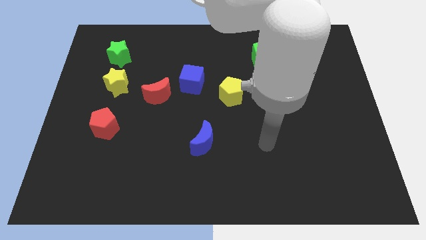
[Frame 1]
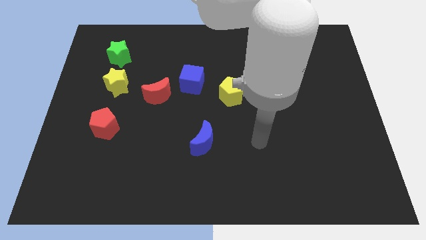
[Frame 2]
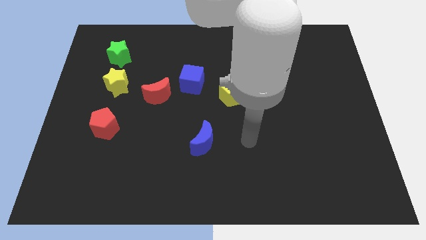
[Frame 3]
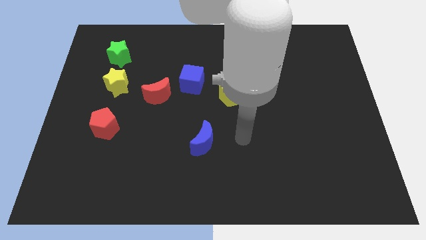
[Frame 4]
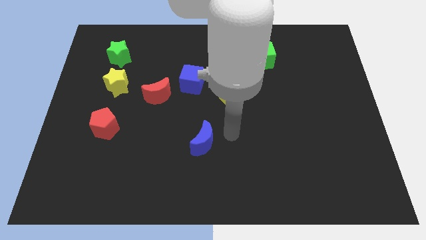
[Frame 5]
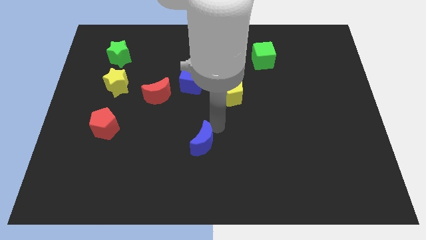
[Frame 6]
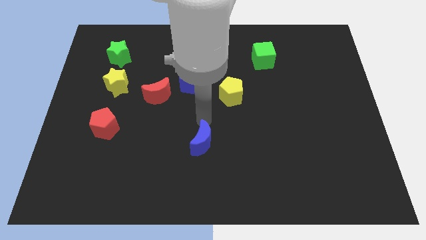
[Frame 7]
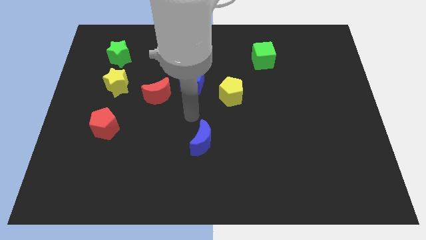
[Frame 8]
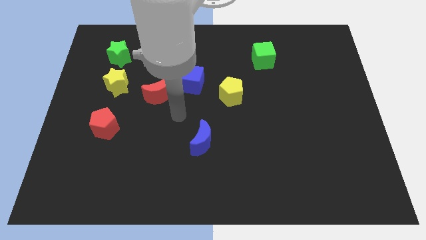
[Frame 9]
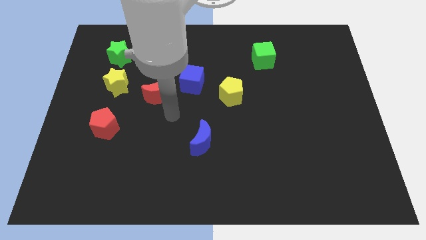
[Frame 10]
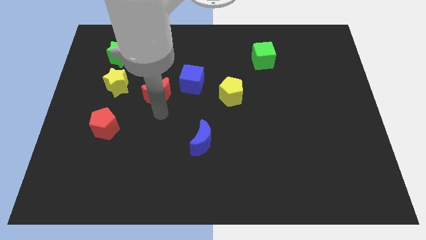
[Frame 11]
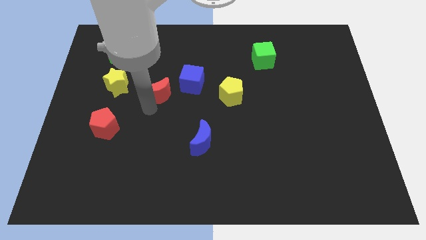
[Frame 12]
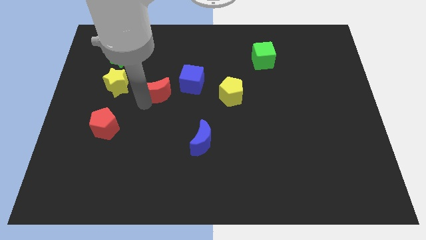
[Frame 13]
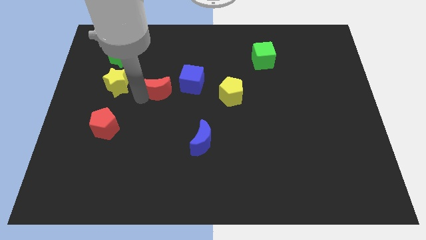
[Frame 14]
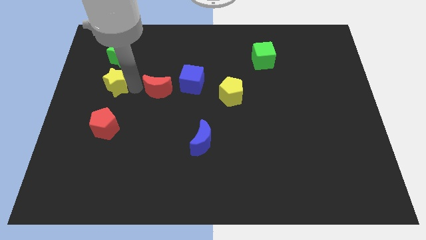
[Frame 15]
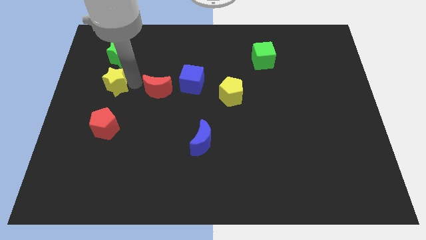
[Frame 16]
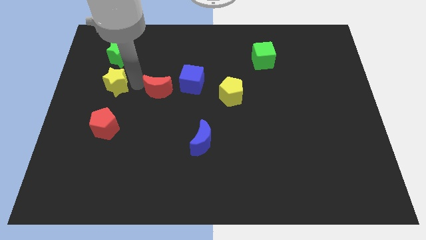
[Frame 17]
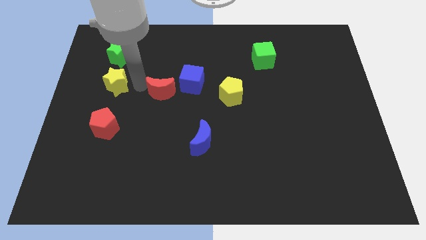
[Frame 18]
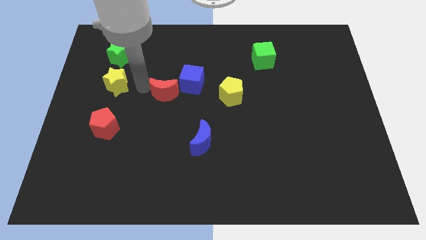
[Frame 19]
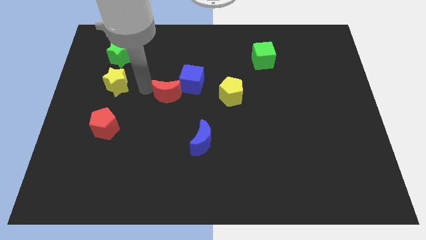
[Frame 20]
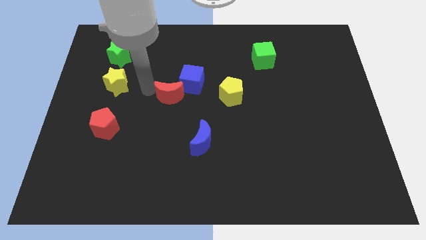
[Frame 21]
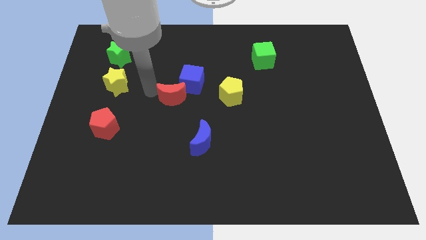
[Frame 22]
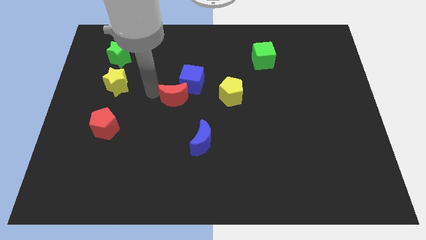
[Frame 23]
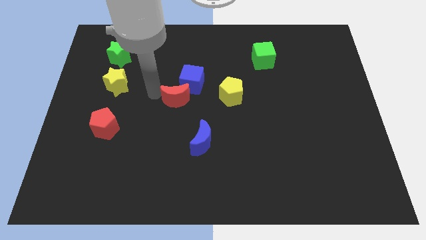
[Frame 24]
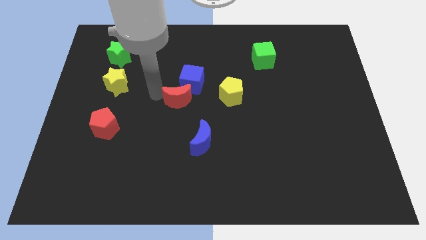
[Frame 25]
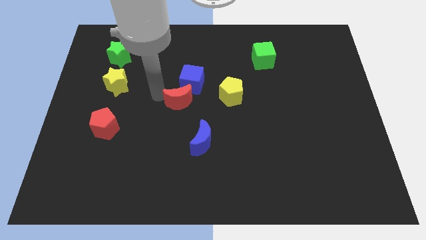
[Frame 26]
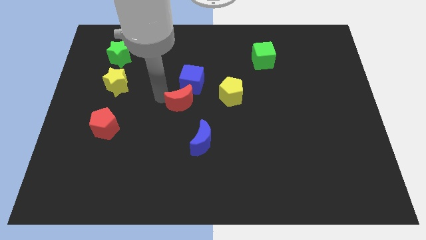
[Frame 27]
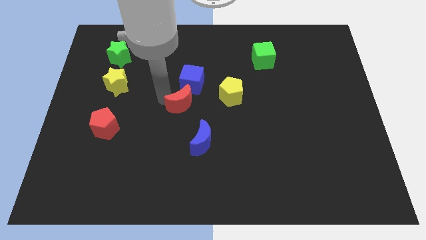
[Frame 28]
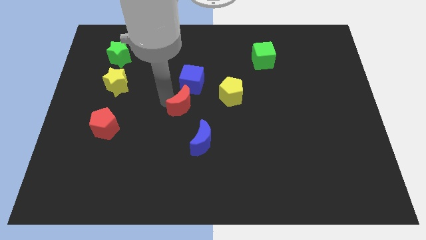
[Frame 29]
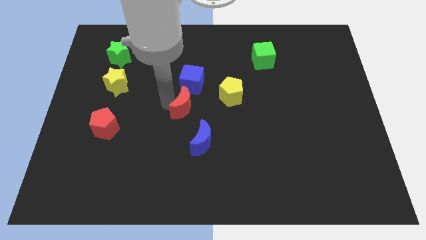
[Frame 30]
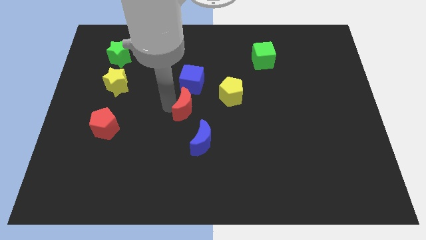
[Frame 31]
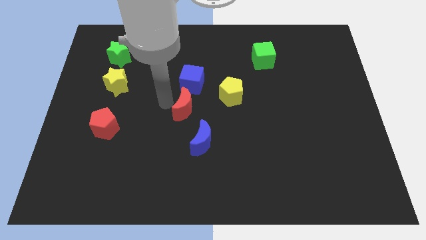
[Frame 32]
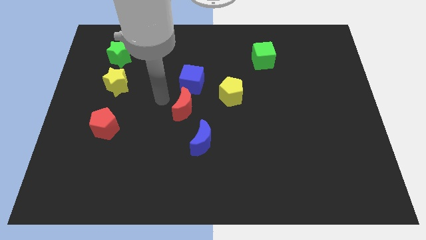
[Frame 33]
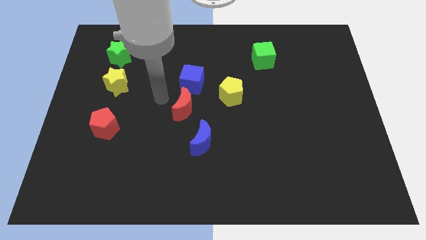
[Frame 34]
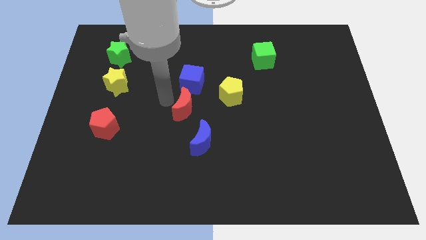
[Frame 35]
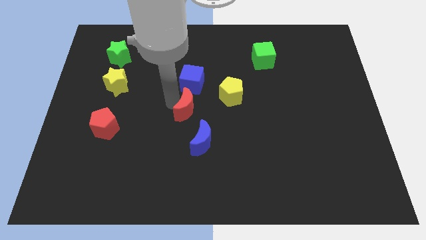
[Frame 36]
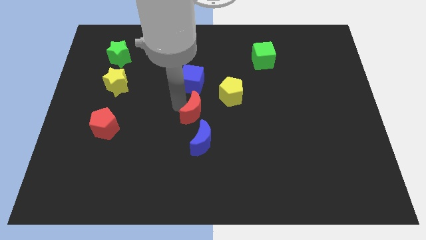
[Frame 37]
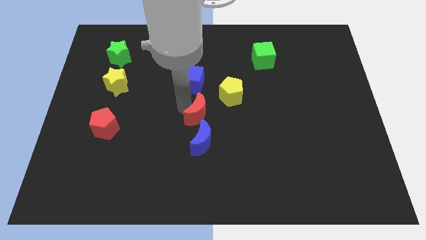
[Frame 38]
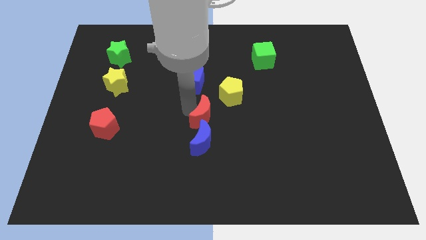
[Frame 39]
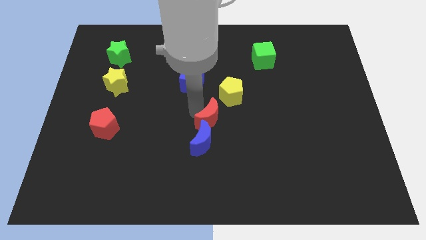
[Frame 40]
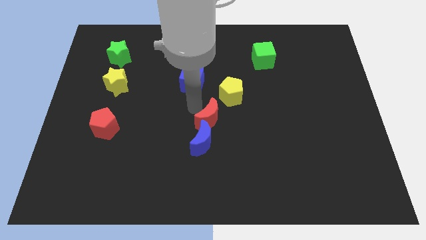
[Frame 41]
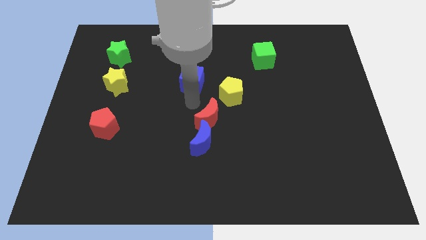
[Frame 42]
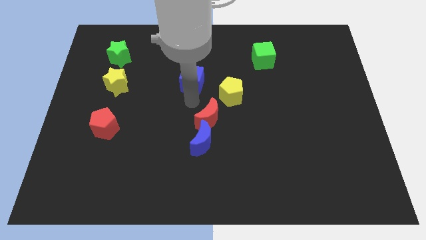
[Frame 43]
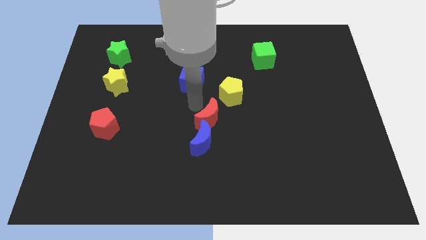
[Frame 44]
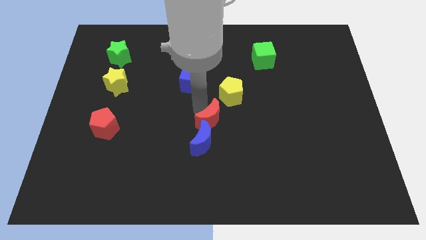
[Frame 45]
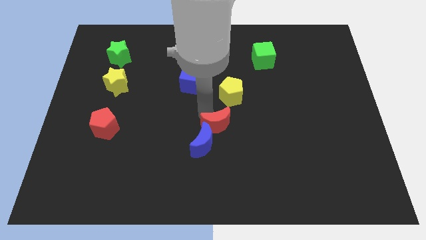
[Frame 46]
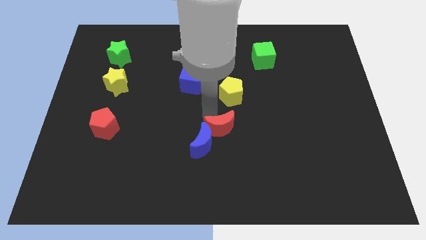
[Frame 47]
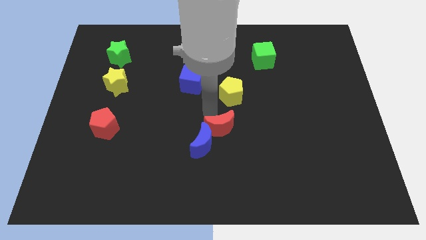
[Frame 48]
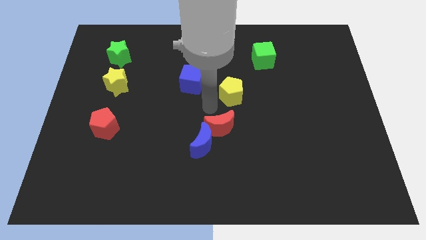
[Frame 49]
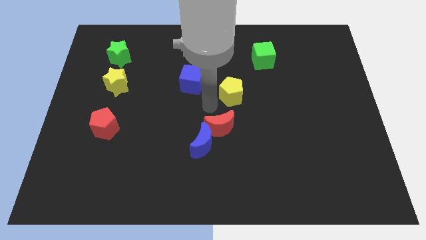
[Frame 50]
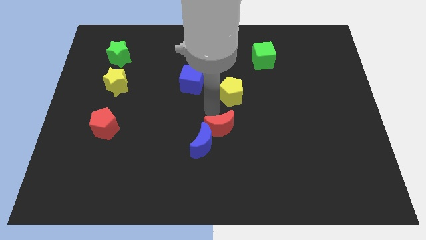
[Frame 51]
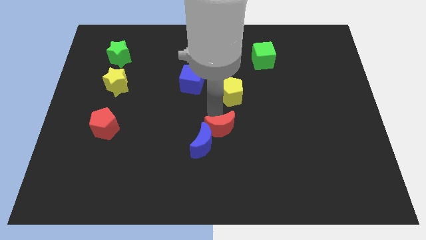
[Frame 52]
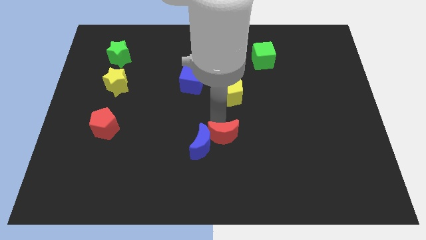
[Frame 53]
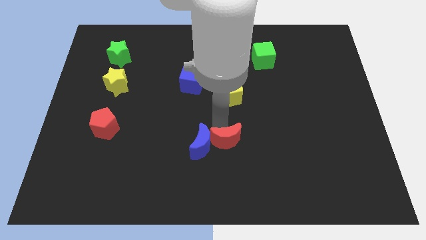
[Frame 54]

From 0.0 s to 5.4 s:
slide the red moon down and right

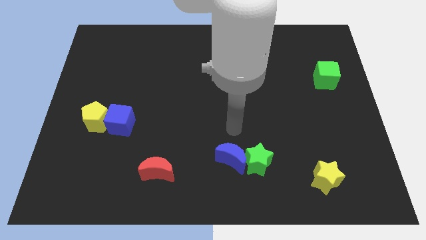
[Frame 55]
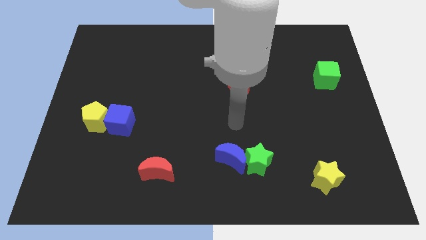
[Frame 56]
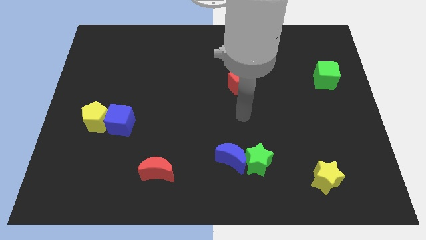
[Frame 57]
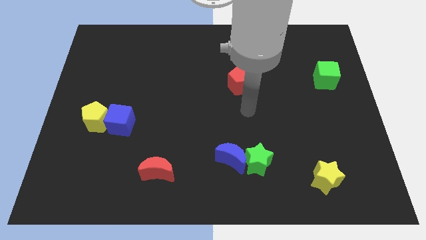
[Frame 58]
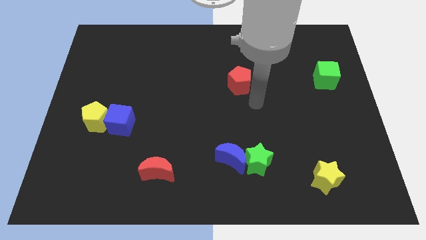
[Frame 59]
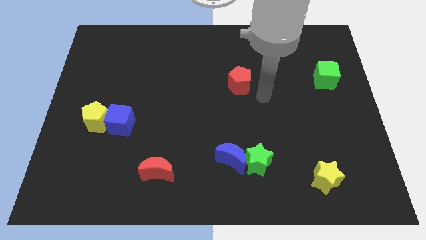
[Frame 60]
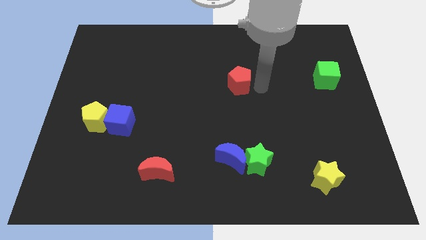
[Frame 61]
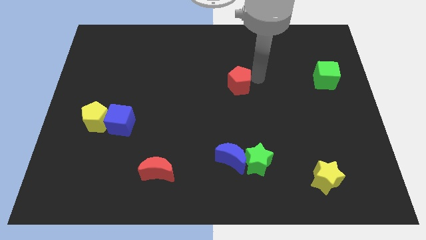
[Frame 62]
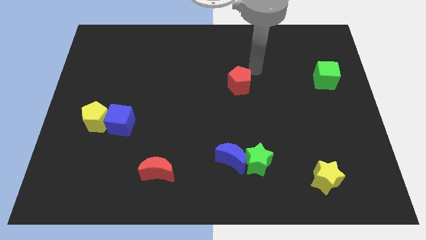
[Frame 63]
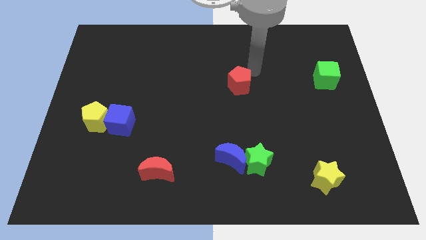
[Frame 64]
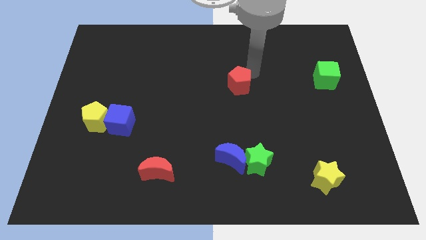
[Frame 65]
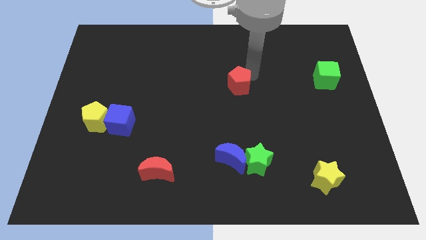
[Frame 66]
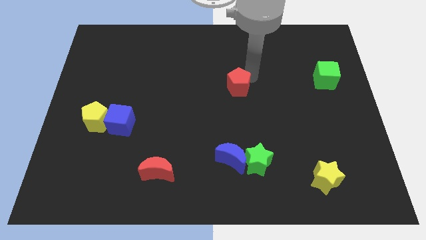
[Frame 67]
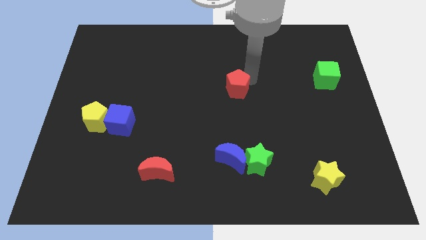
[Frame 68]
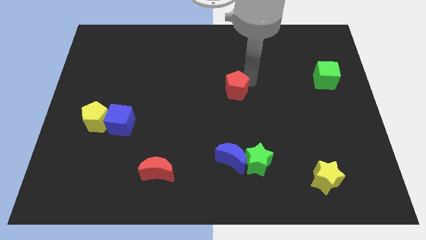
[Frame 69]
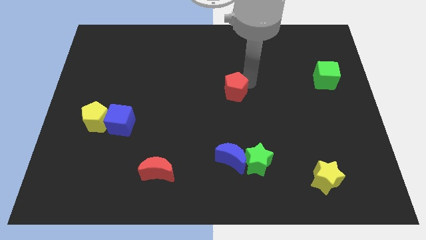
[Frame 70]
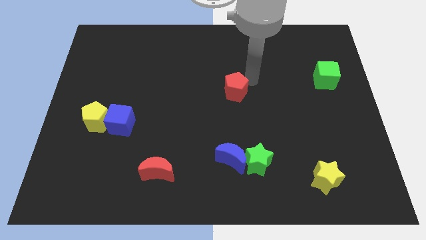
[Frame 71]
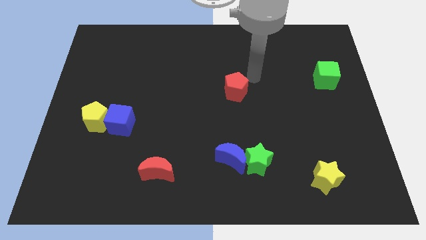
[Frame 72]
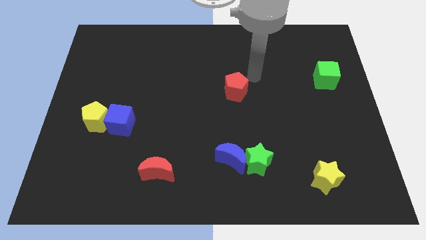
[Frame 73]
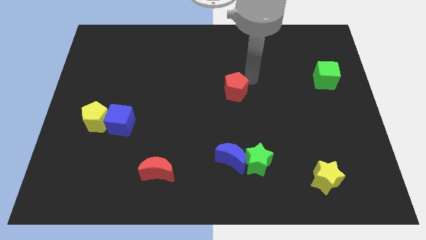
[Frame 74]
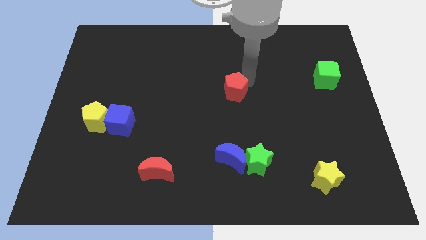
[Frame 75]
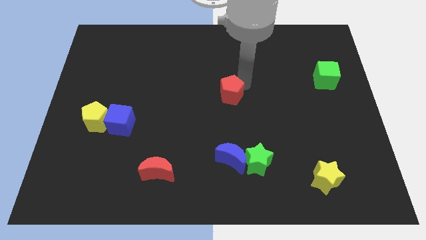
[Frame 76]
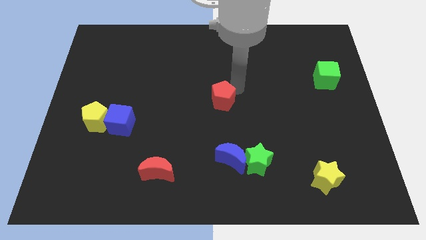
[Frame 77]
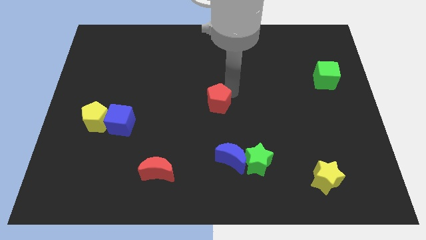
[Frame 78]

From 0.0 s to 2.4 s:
slide the red pentagon downwards and to the left diagonally a little

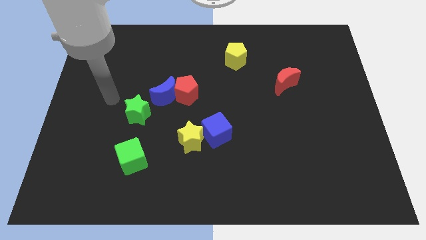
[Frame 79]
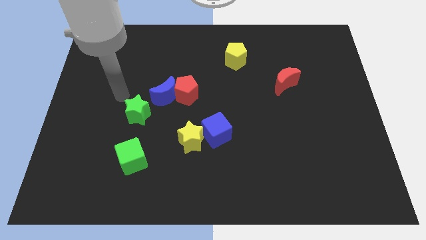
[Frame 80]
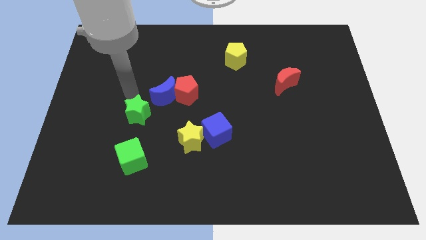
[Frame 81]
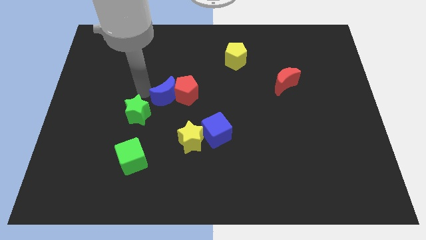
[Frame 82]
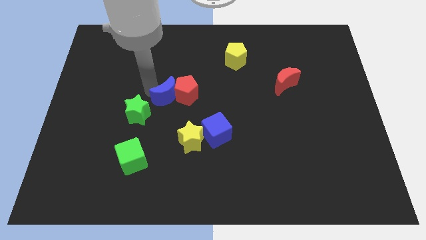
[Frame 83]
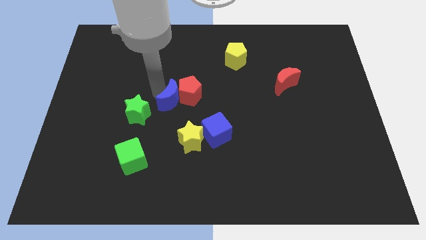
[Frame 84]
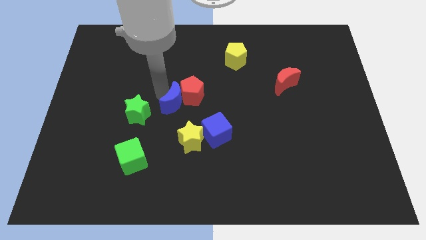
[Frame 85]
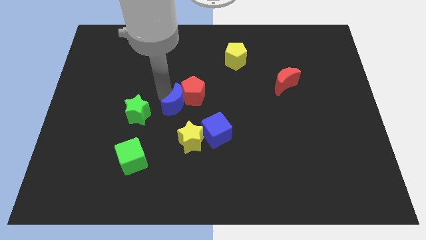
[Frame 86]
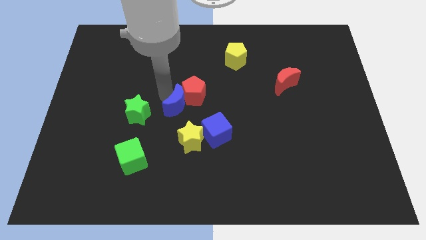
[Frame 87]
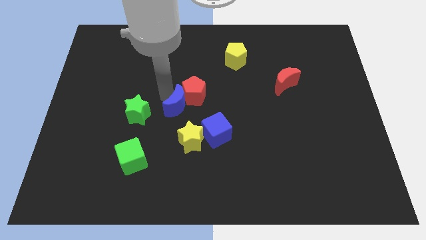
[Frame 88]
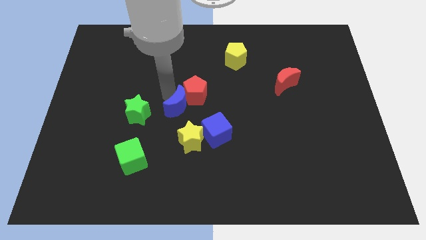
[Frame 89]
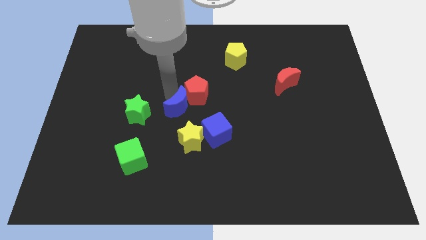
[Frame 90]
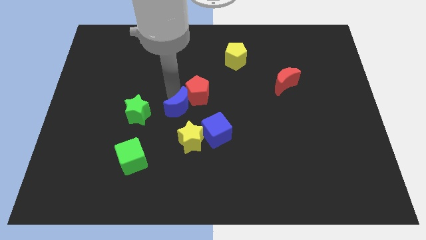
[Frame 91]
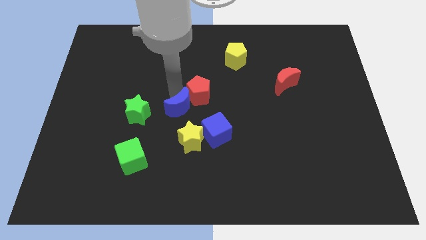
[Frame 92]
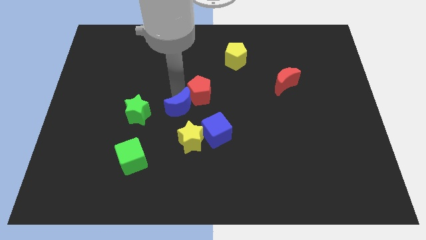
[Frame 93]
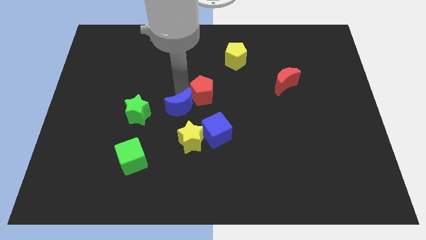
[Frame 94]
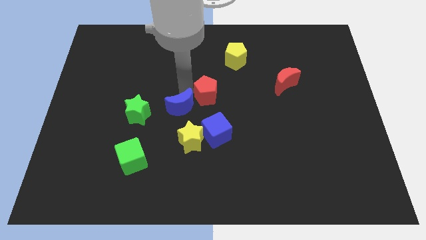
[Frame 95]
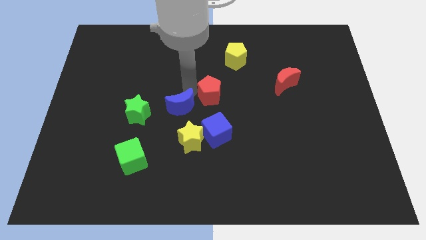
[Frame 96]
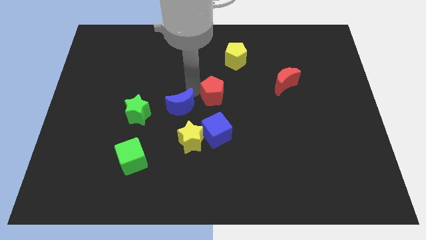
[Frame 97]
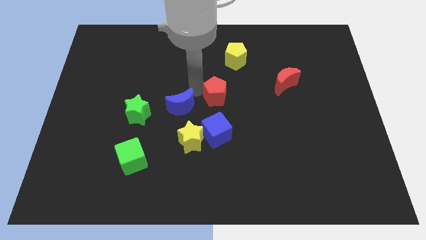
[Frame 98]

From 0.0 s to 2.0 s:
push the red pentagon right a bit
